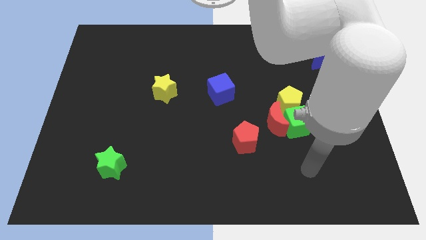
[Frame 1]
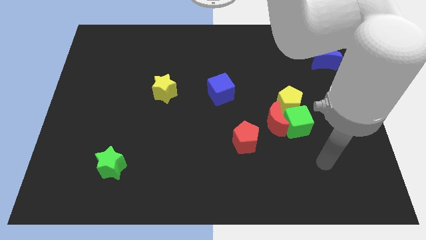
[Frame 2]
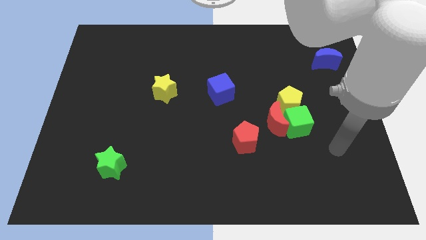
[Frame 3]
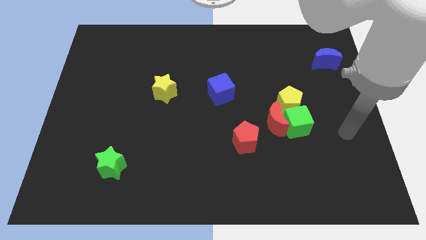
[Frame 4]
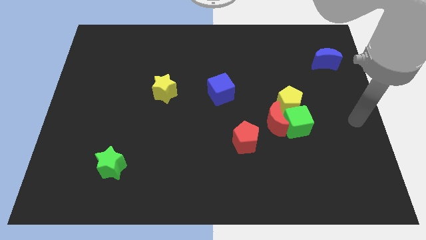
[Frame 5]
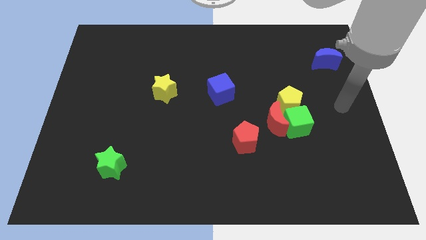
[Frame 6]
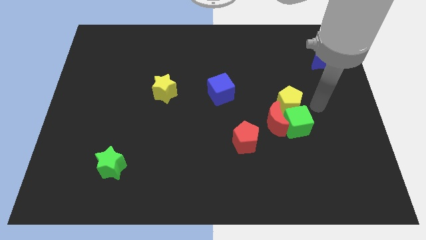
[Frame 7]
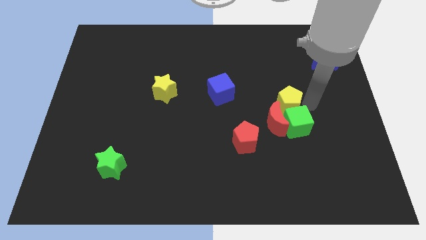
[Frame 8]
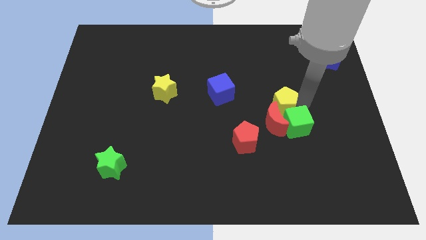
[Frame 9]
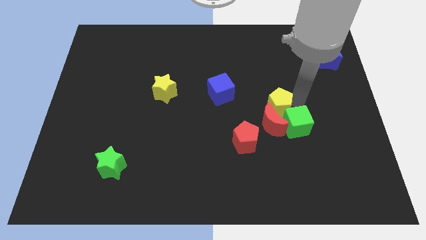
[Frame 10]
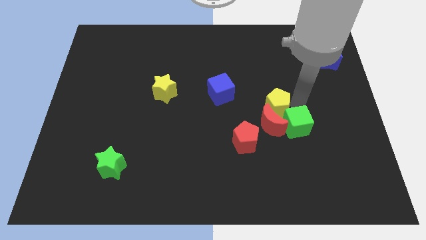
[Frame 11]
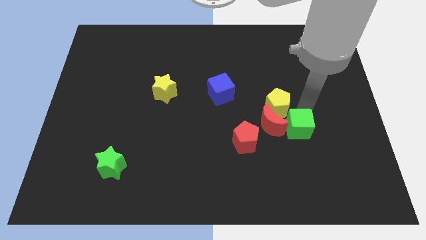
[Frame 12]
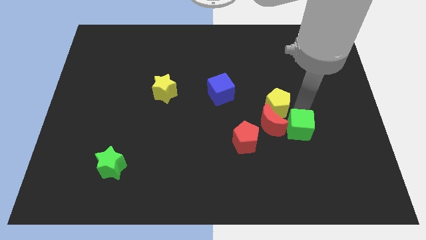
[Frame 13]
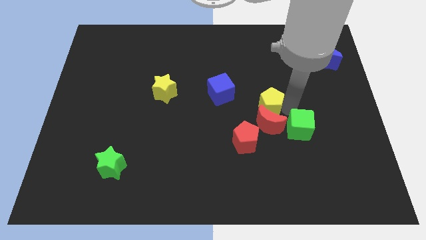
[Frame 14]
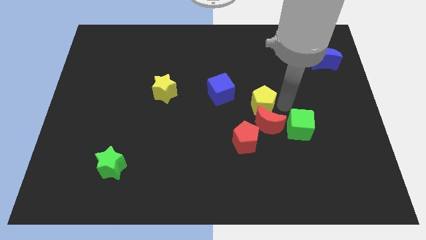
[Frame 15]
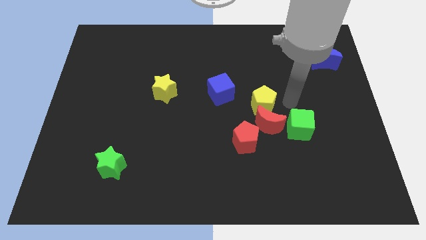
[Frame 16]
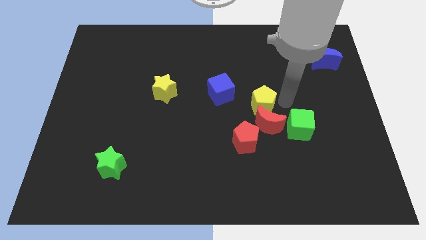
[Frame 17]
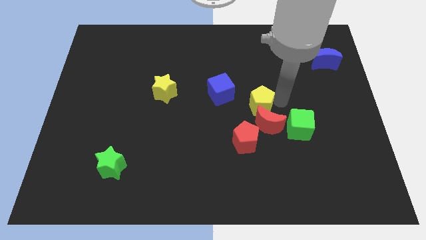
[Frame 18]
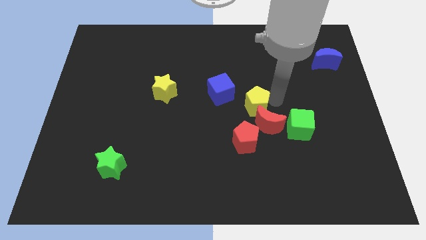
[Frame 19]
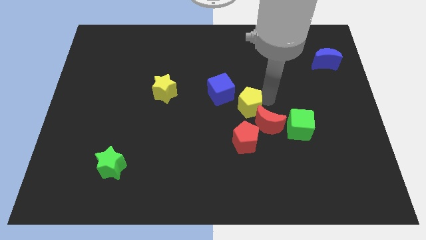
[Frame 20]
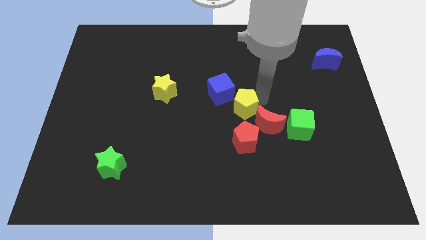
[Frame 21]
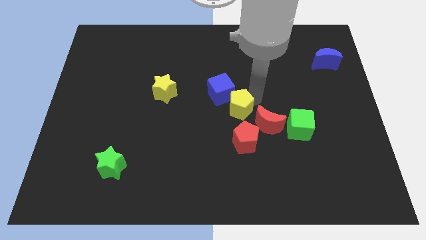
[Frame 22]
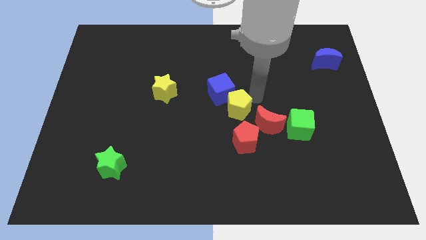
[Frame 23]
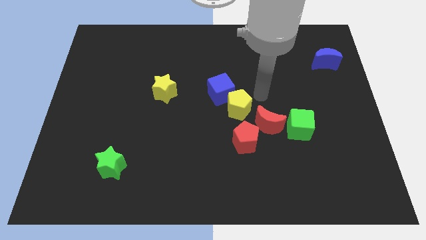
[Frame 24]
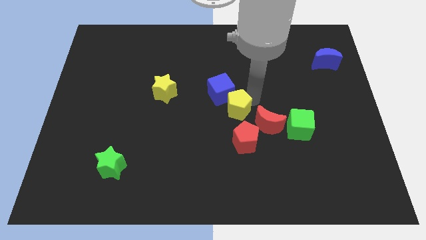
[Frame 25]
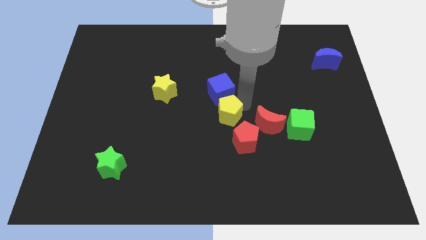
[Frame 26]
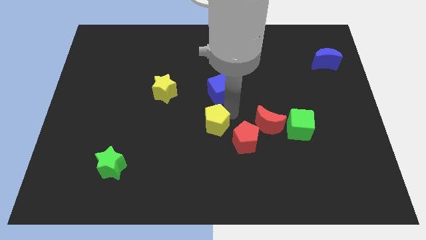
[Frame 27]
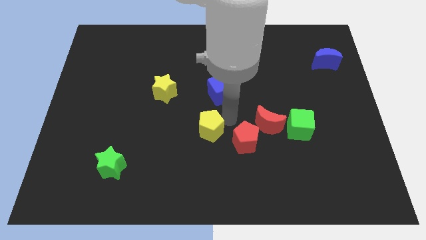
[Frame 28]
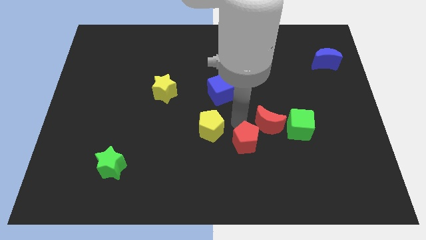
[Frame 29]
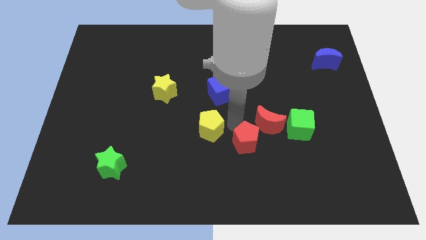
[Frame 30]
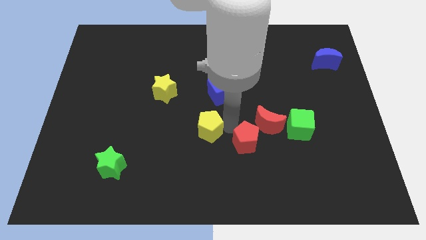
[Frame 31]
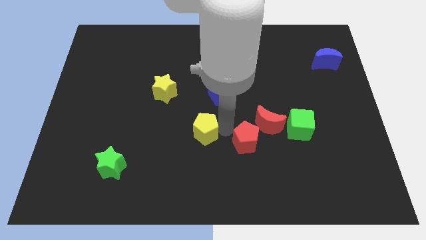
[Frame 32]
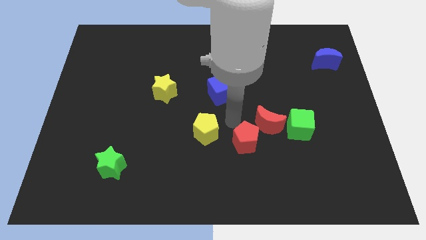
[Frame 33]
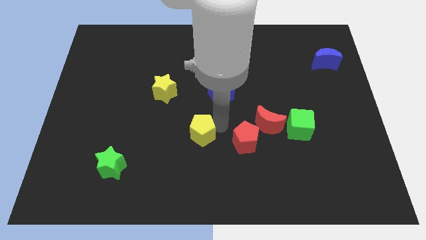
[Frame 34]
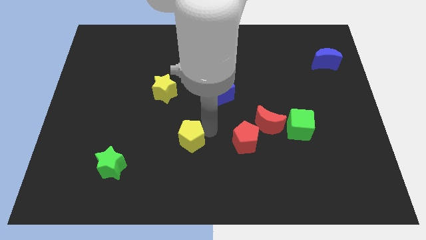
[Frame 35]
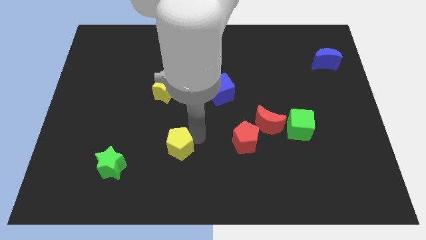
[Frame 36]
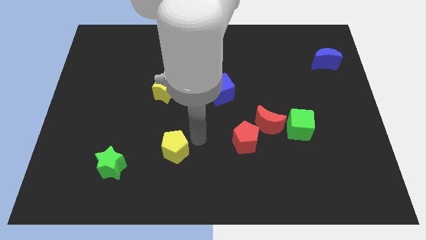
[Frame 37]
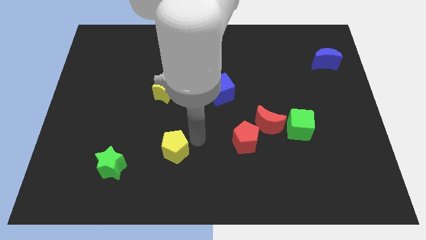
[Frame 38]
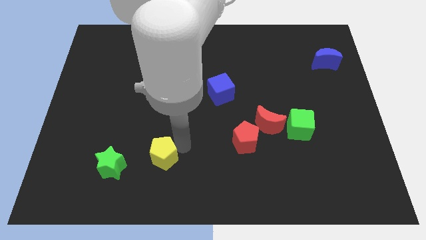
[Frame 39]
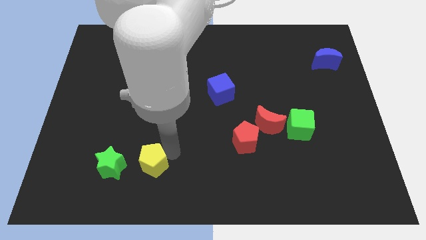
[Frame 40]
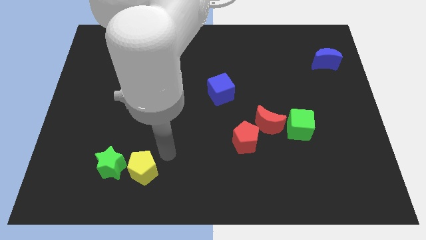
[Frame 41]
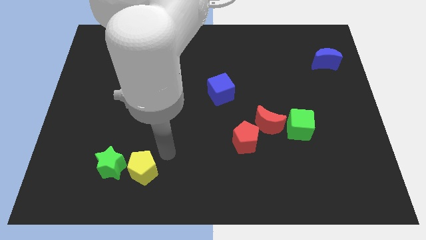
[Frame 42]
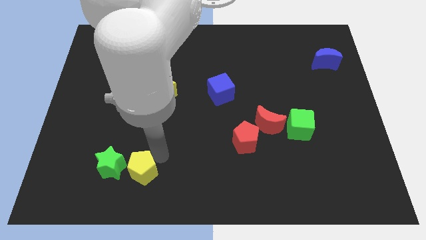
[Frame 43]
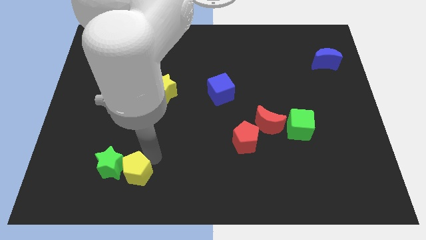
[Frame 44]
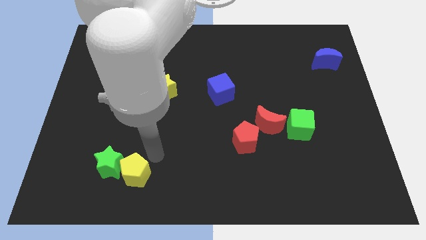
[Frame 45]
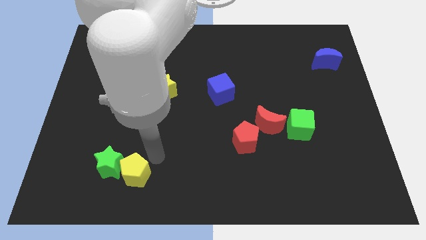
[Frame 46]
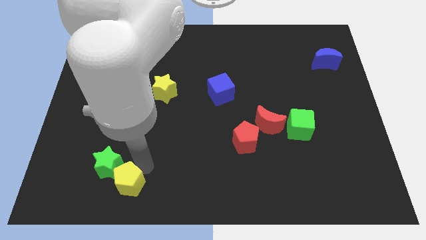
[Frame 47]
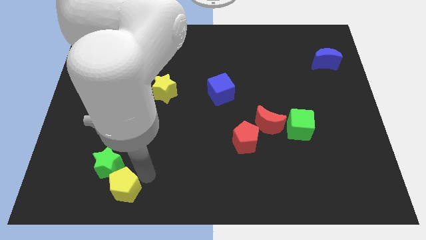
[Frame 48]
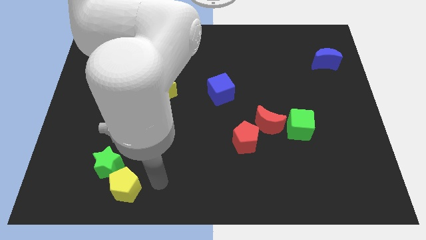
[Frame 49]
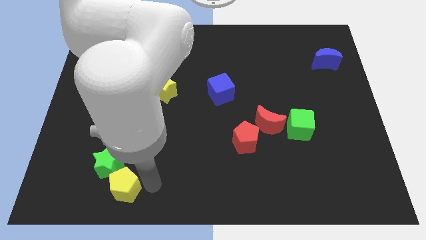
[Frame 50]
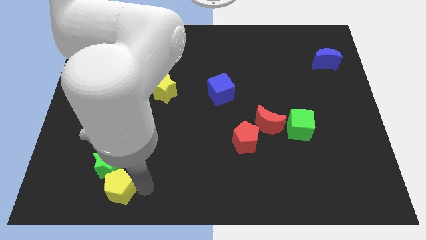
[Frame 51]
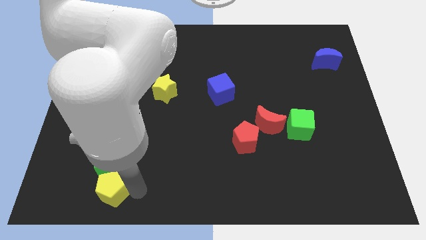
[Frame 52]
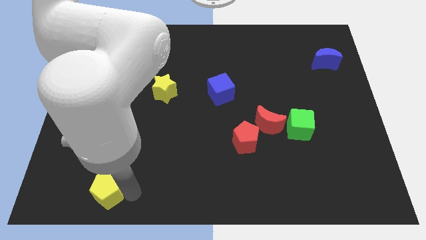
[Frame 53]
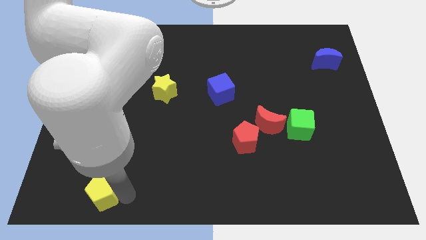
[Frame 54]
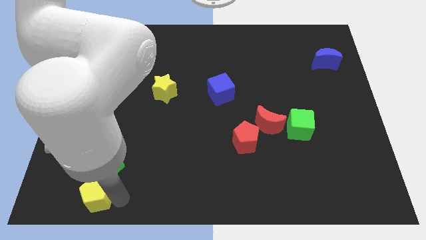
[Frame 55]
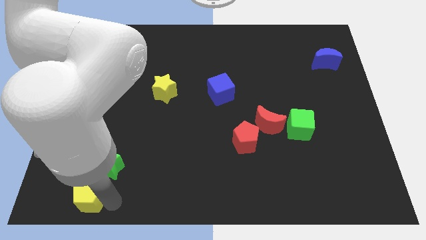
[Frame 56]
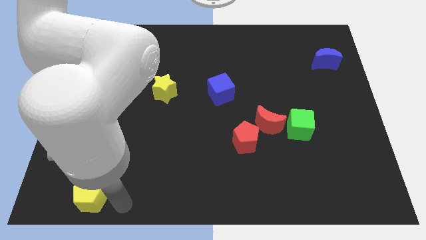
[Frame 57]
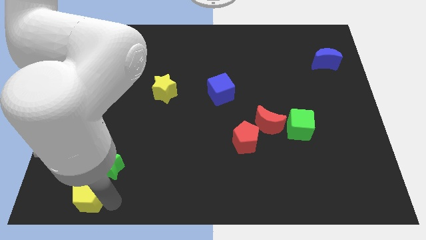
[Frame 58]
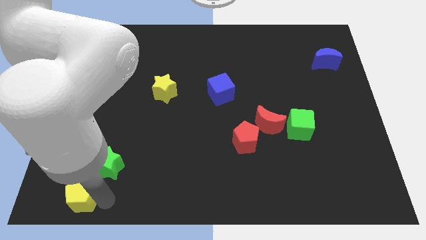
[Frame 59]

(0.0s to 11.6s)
push the yellow pentagon to the bottom left corner
